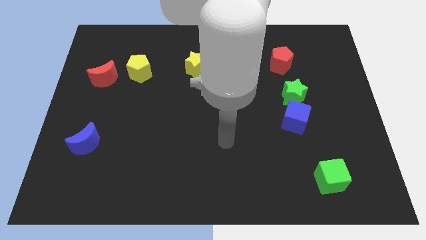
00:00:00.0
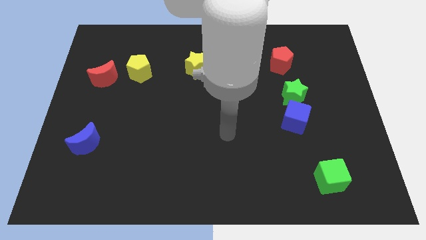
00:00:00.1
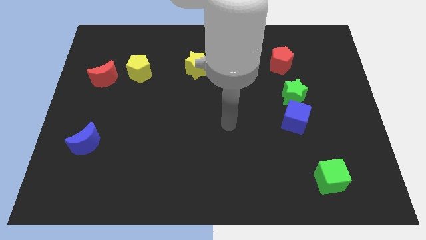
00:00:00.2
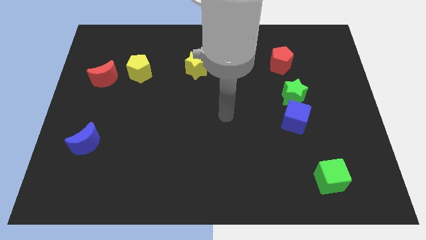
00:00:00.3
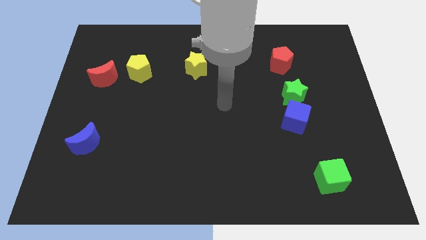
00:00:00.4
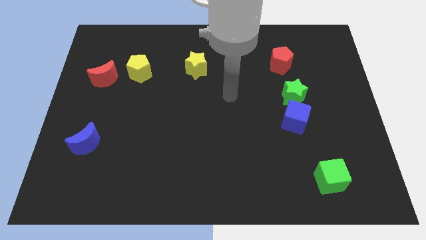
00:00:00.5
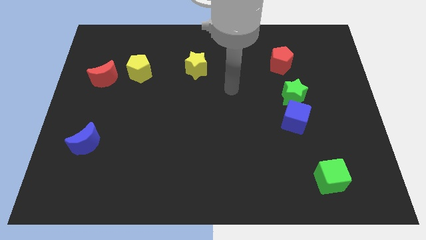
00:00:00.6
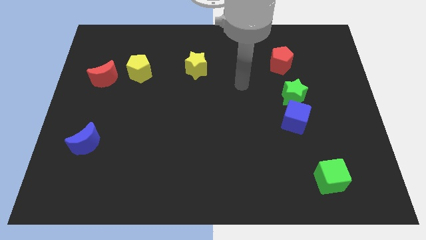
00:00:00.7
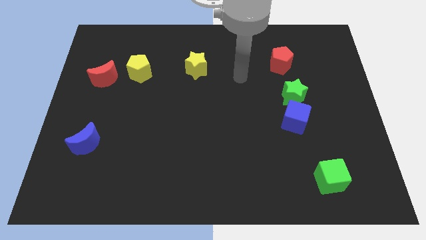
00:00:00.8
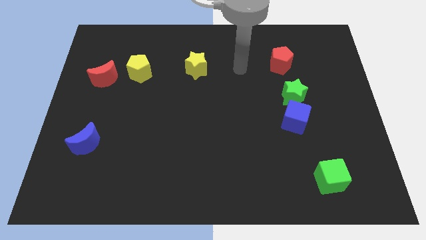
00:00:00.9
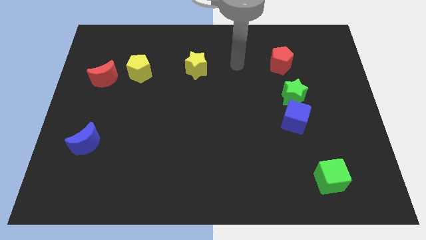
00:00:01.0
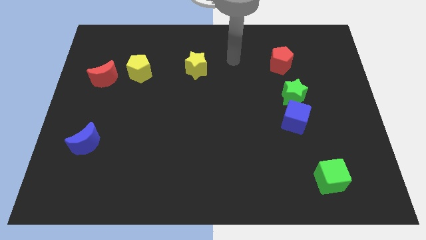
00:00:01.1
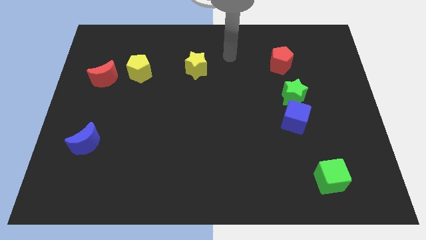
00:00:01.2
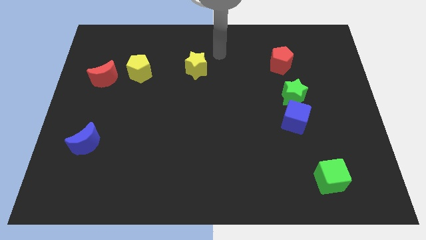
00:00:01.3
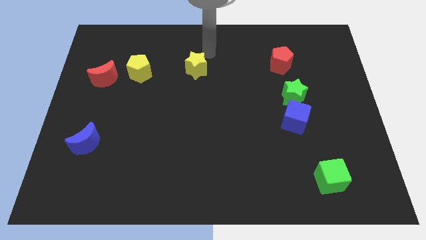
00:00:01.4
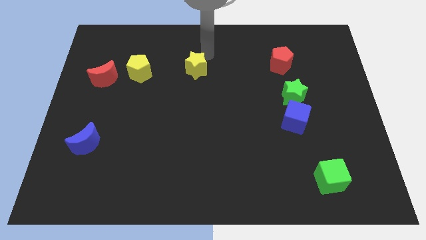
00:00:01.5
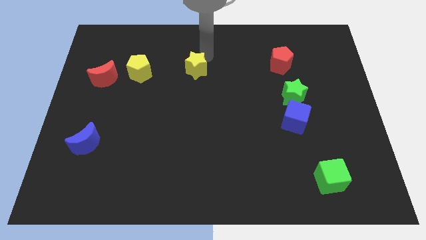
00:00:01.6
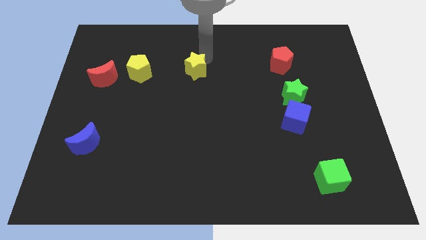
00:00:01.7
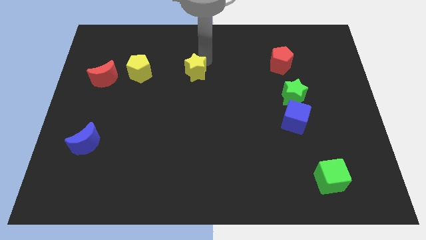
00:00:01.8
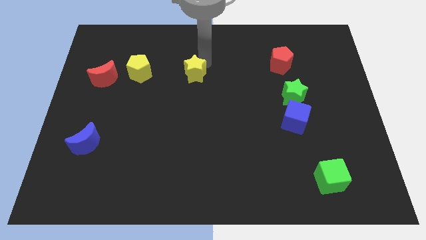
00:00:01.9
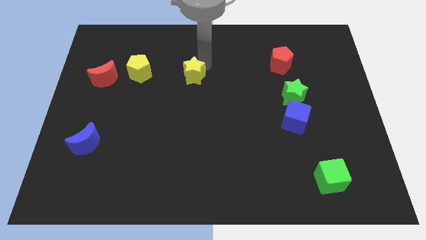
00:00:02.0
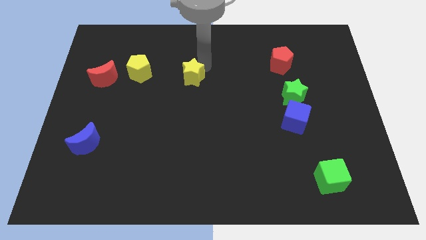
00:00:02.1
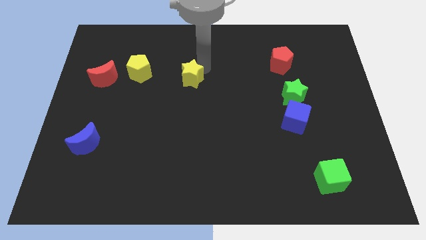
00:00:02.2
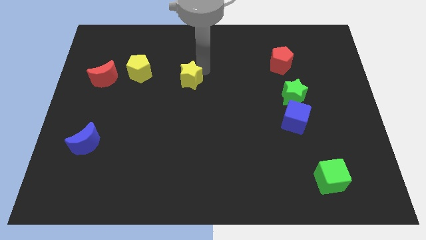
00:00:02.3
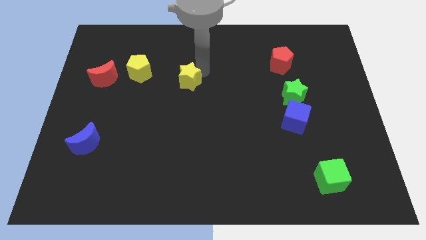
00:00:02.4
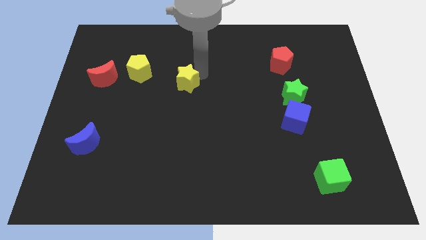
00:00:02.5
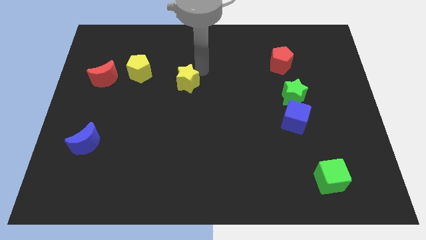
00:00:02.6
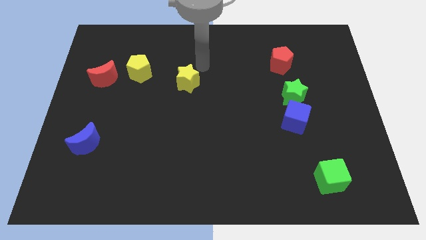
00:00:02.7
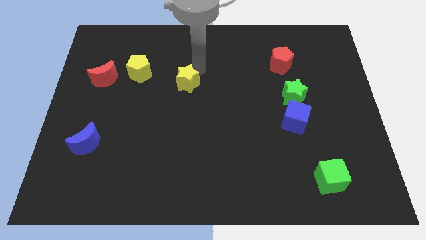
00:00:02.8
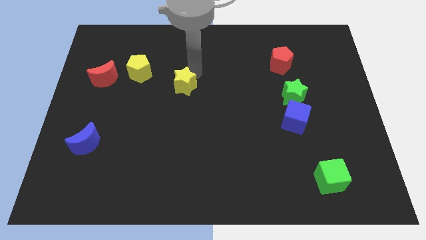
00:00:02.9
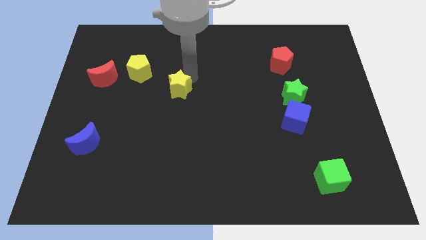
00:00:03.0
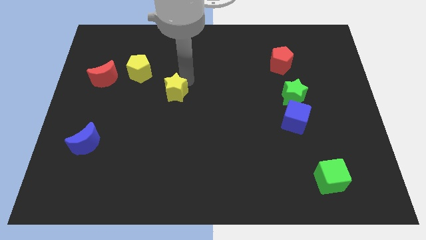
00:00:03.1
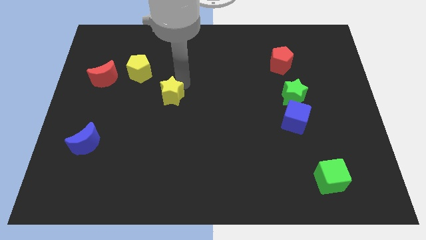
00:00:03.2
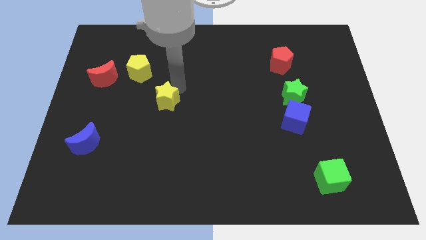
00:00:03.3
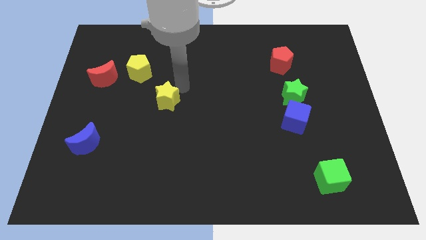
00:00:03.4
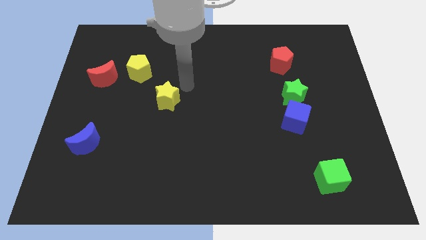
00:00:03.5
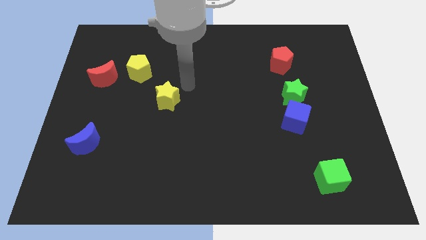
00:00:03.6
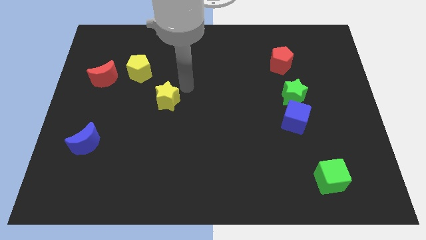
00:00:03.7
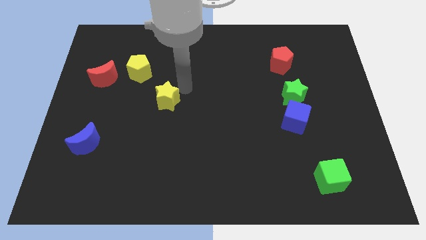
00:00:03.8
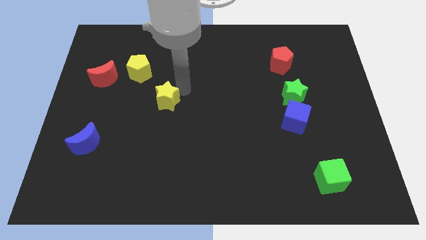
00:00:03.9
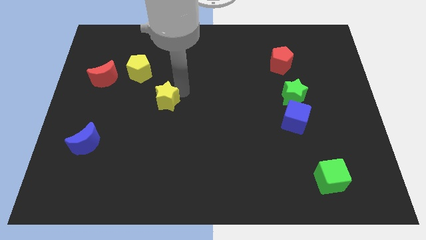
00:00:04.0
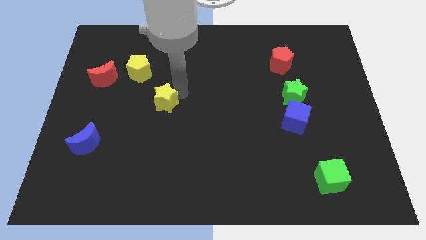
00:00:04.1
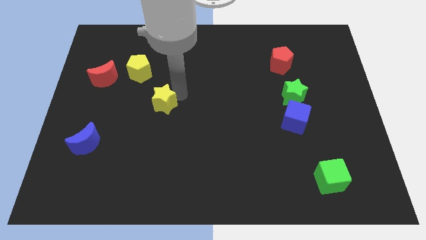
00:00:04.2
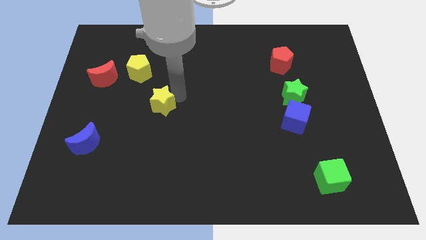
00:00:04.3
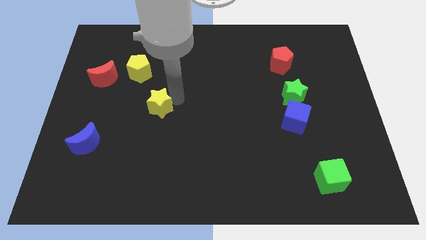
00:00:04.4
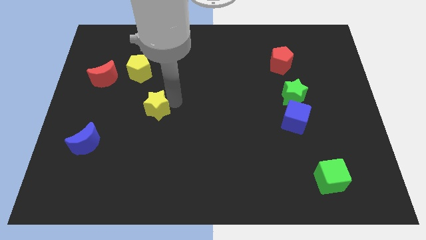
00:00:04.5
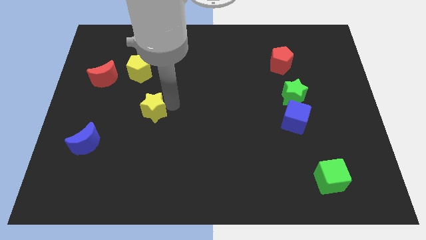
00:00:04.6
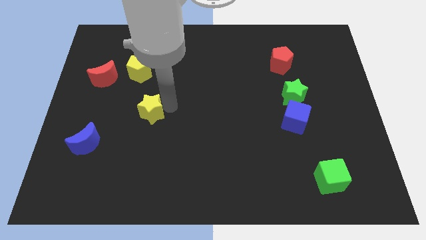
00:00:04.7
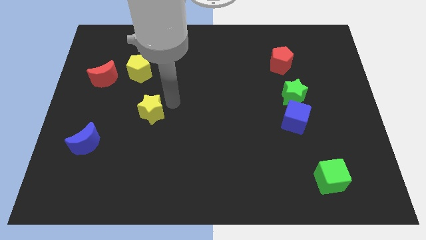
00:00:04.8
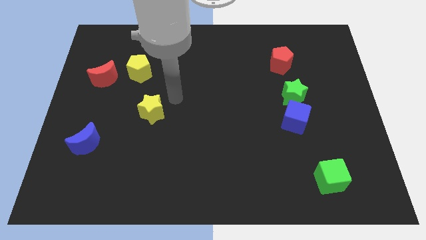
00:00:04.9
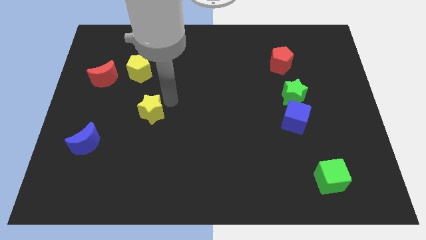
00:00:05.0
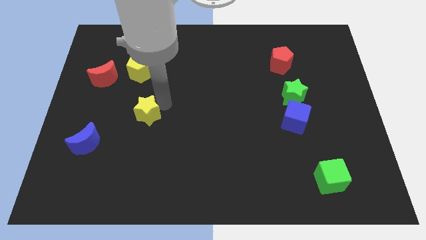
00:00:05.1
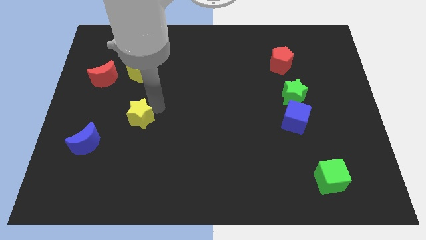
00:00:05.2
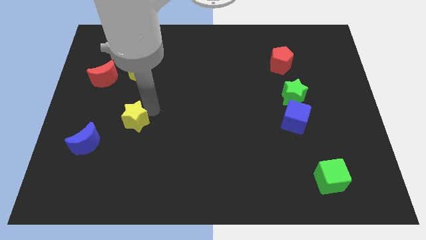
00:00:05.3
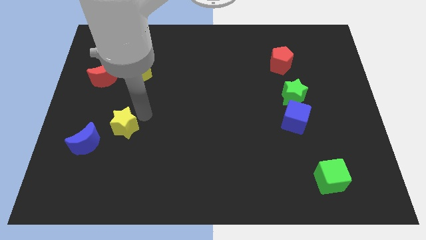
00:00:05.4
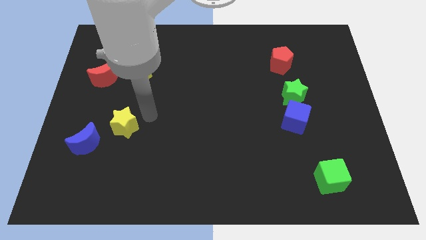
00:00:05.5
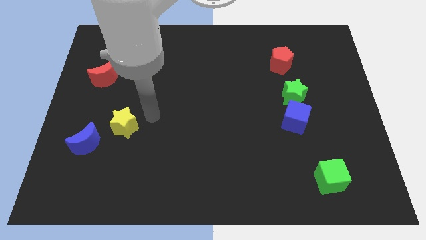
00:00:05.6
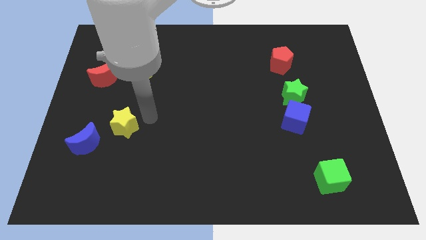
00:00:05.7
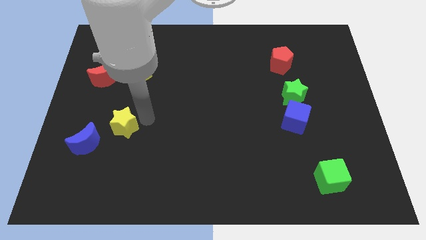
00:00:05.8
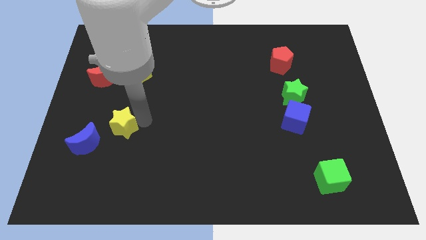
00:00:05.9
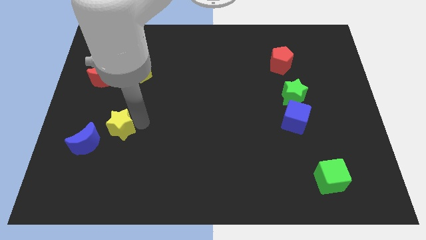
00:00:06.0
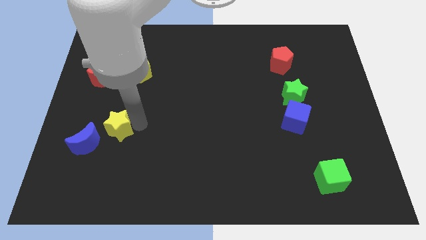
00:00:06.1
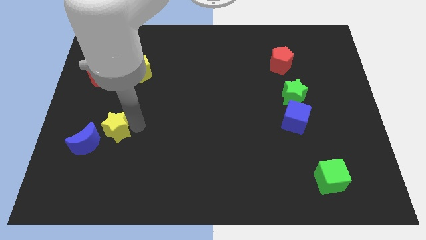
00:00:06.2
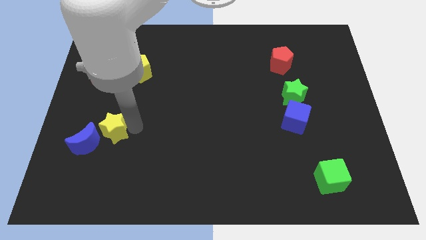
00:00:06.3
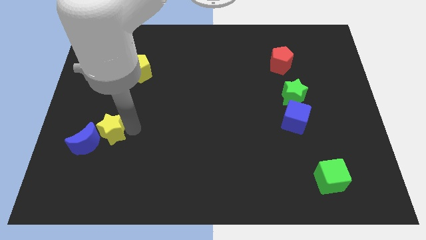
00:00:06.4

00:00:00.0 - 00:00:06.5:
move the yellow star close to the blue moon

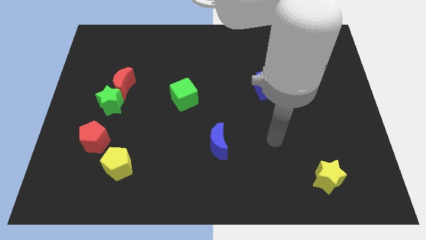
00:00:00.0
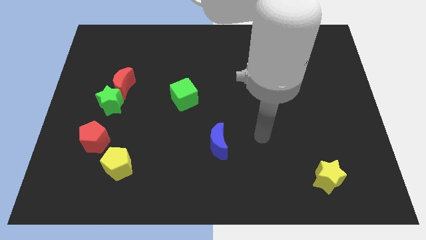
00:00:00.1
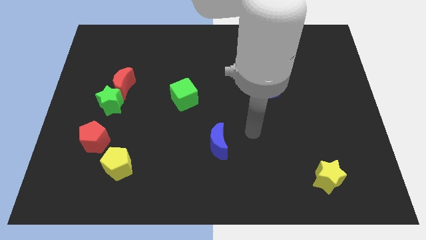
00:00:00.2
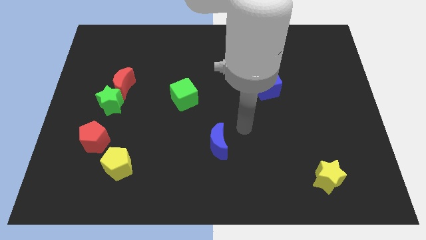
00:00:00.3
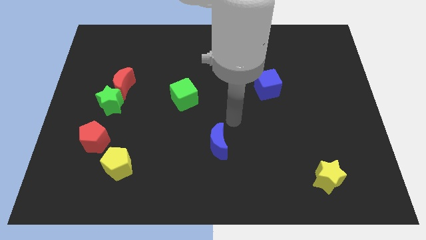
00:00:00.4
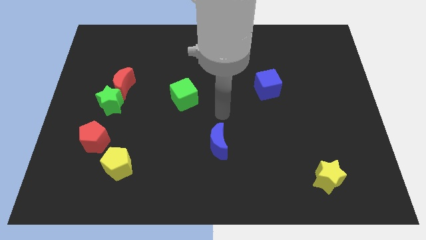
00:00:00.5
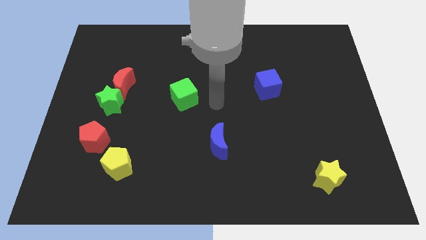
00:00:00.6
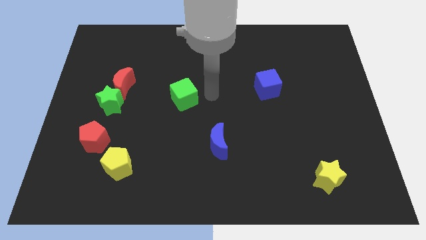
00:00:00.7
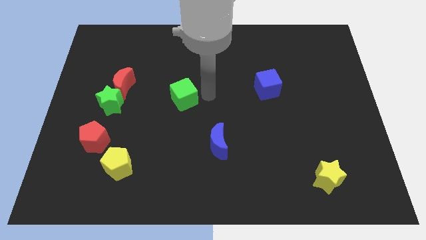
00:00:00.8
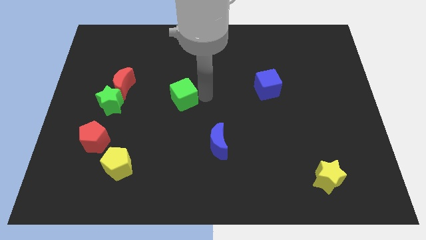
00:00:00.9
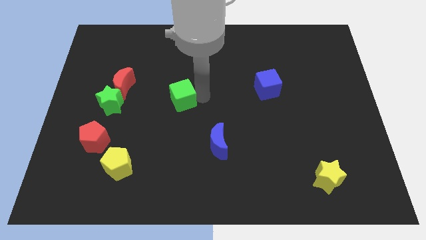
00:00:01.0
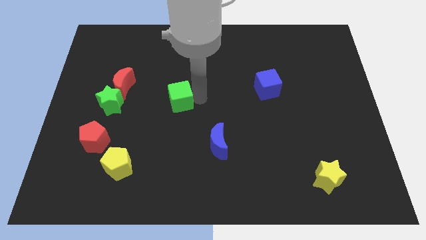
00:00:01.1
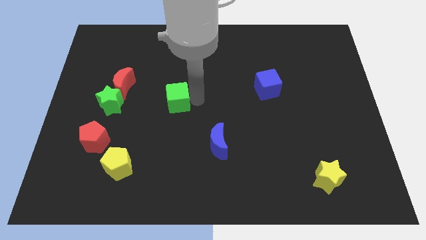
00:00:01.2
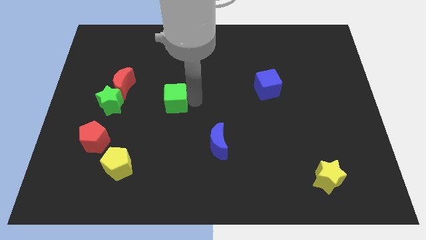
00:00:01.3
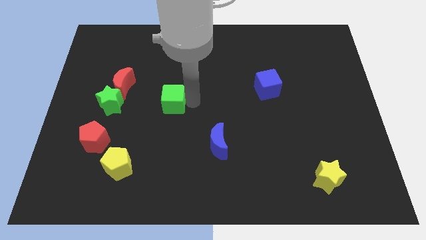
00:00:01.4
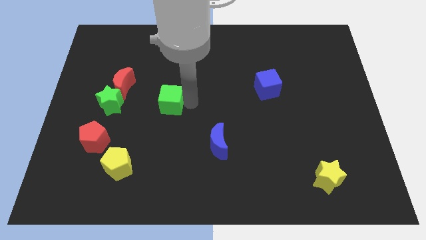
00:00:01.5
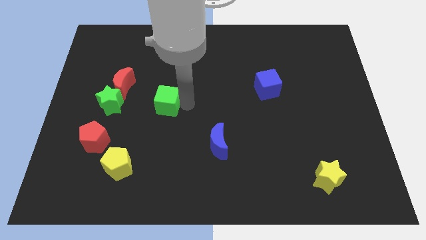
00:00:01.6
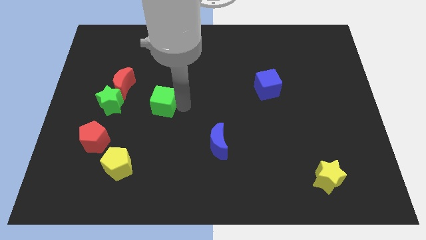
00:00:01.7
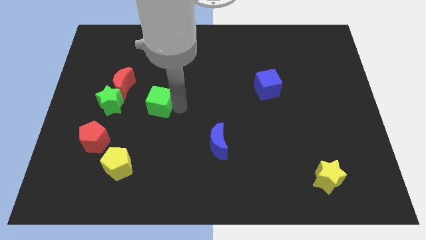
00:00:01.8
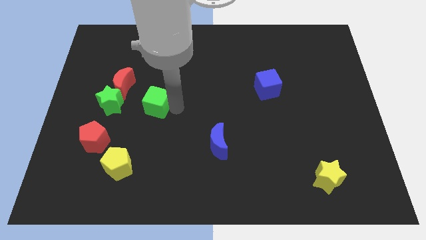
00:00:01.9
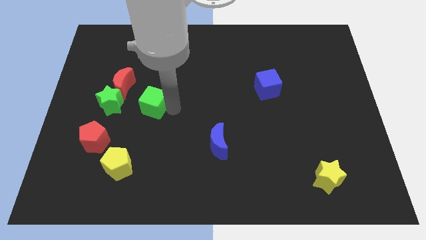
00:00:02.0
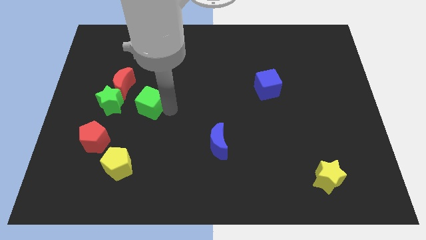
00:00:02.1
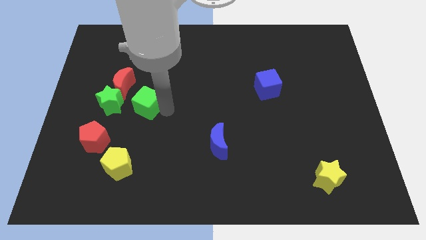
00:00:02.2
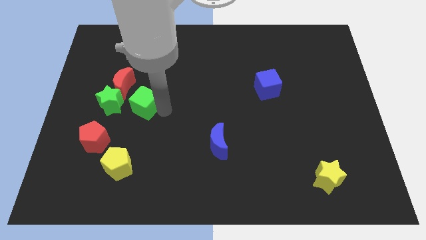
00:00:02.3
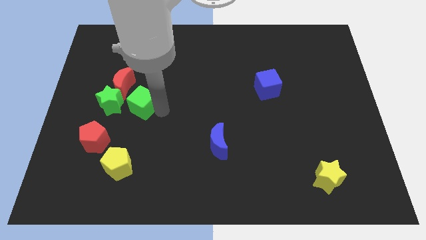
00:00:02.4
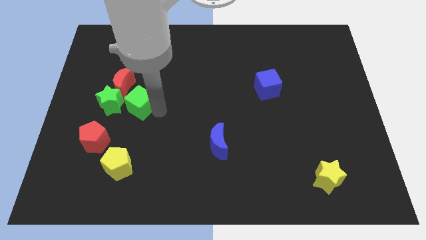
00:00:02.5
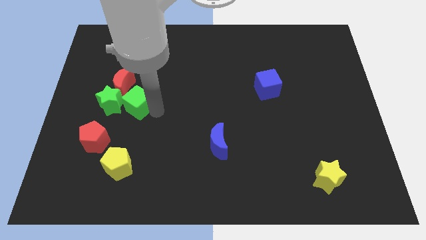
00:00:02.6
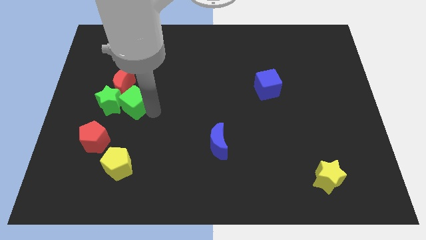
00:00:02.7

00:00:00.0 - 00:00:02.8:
slide the green cube close to the green star
